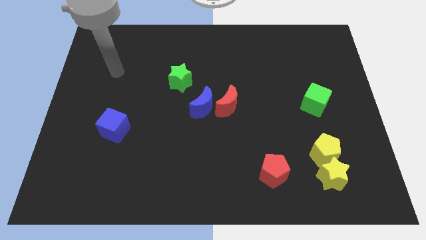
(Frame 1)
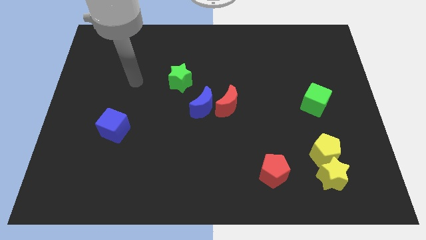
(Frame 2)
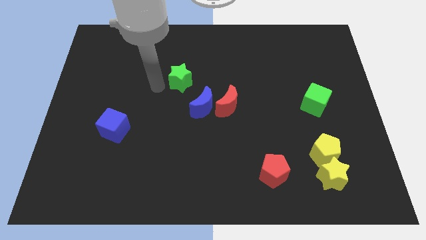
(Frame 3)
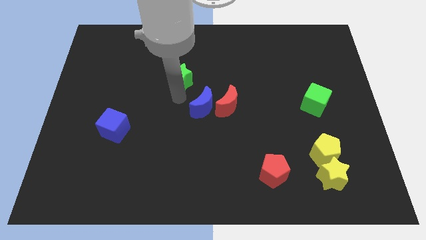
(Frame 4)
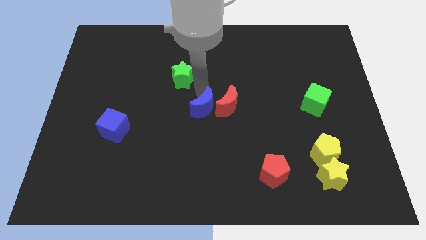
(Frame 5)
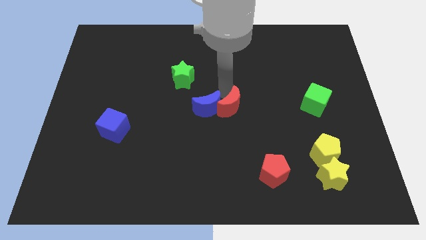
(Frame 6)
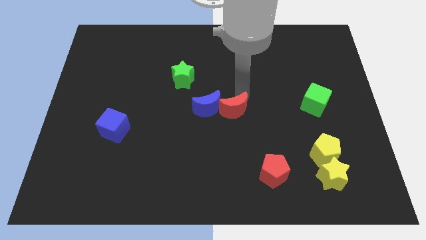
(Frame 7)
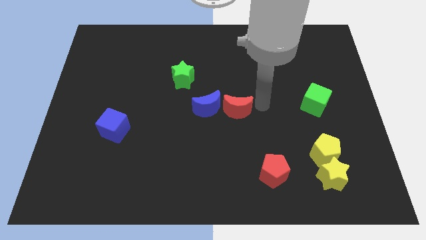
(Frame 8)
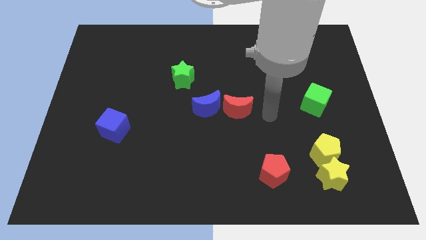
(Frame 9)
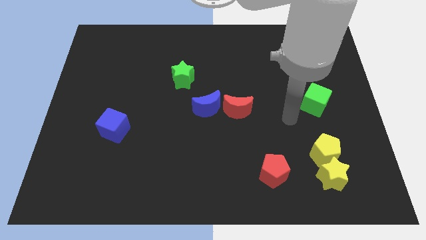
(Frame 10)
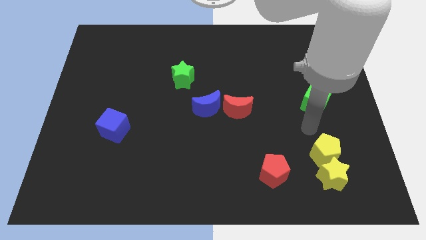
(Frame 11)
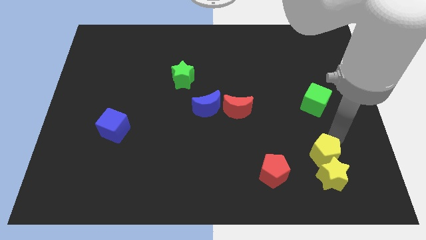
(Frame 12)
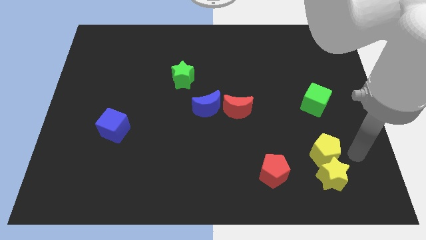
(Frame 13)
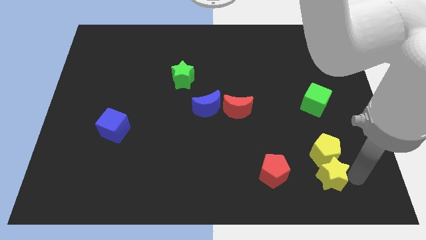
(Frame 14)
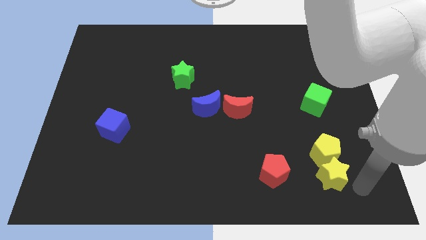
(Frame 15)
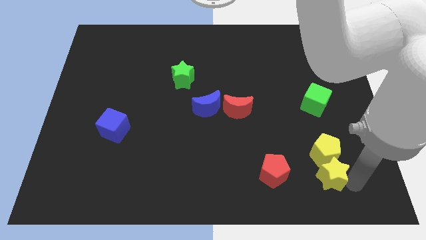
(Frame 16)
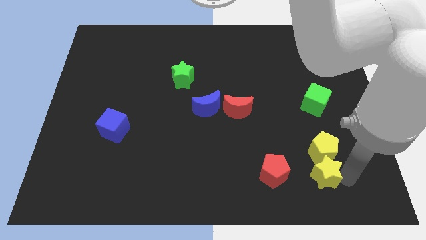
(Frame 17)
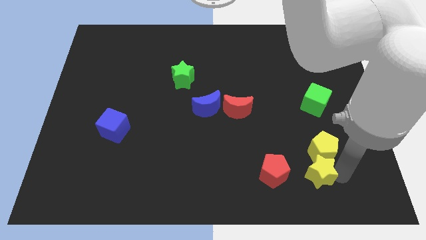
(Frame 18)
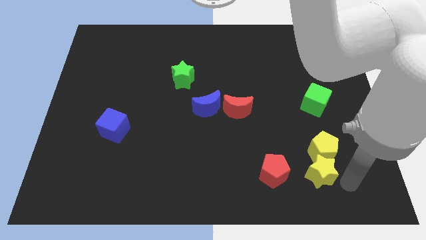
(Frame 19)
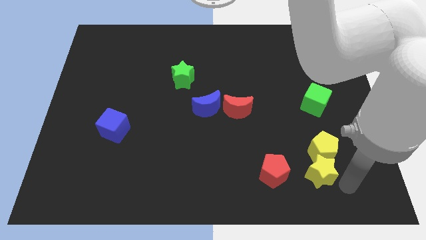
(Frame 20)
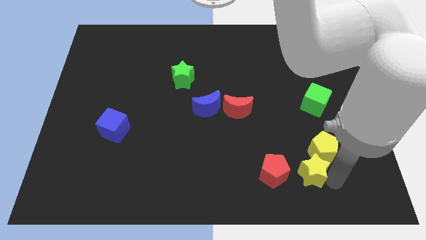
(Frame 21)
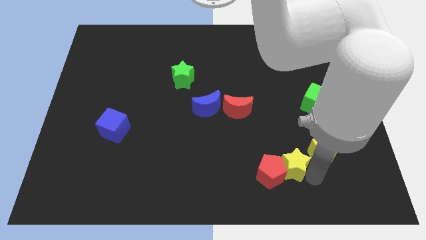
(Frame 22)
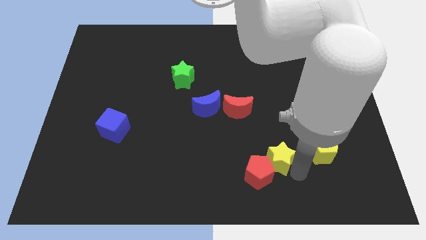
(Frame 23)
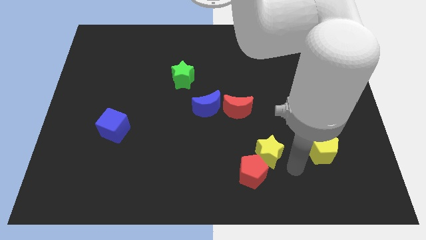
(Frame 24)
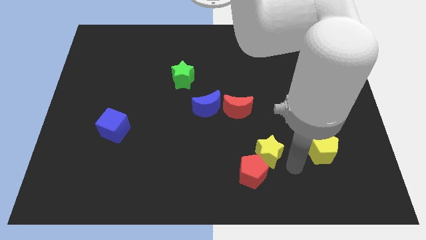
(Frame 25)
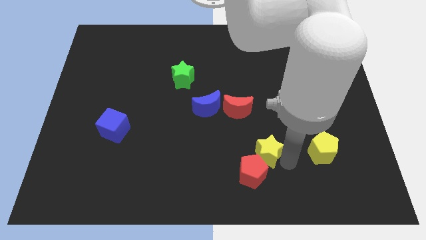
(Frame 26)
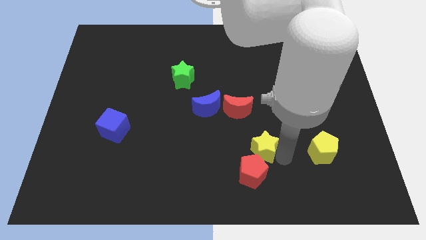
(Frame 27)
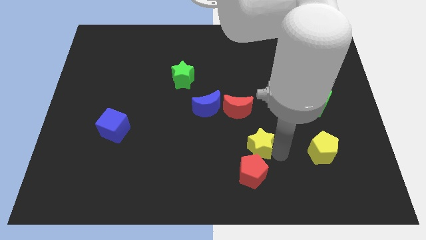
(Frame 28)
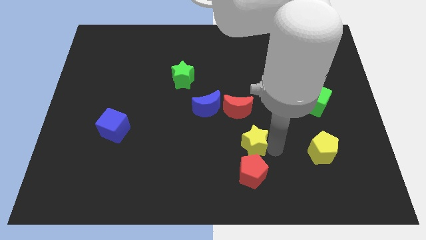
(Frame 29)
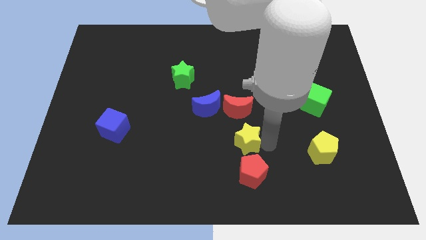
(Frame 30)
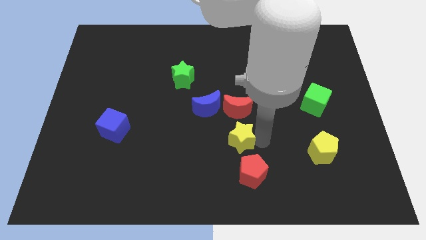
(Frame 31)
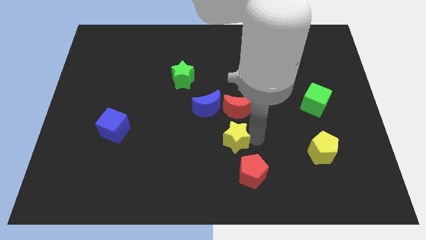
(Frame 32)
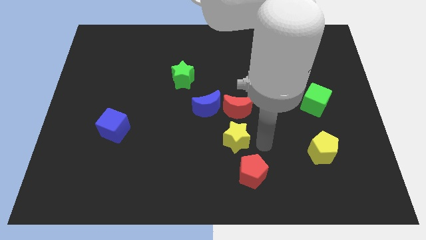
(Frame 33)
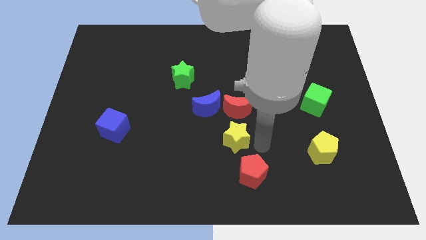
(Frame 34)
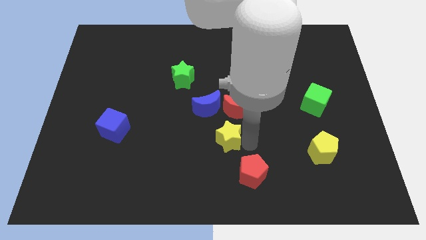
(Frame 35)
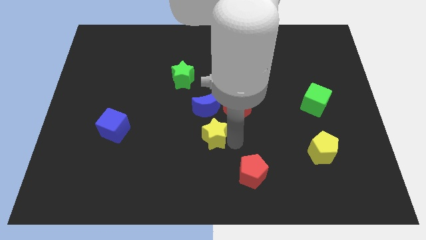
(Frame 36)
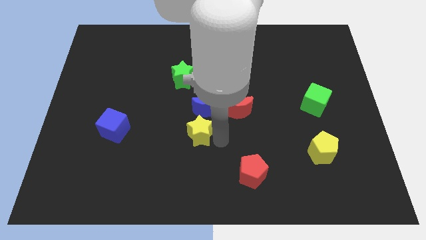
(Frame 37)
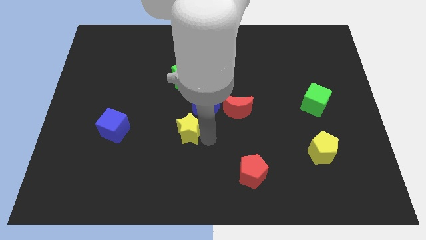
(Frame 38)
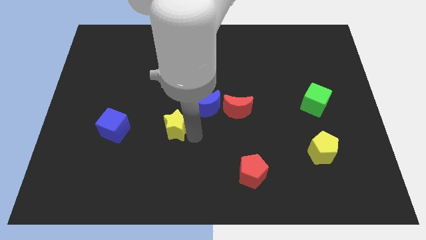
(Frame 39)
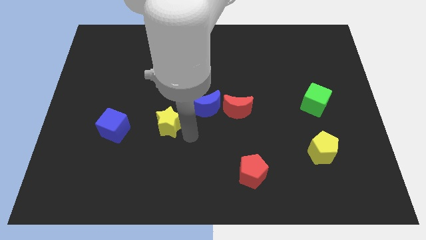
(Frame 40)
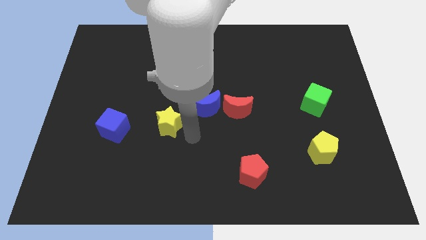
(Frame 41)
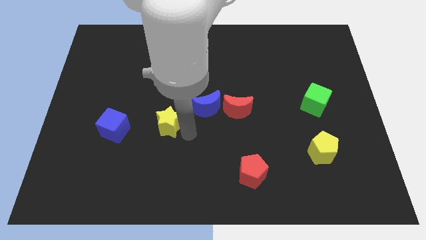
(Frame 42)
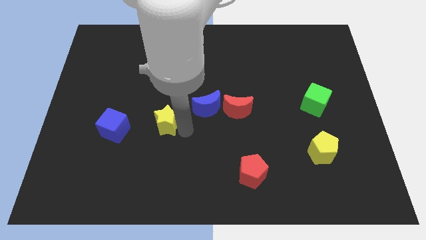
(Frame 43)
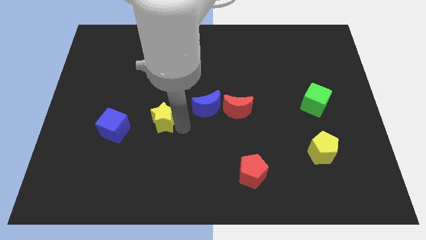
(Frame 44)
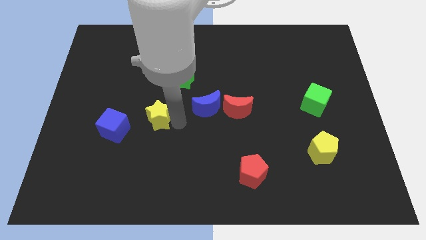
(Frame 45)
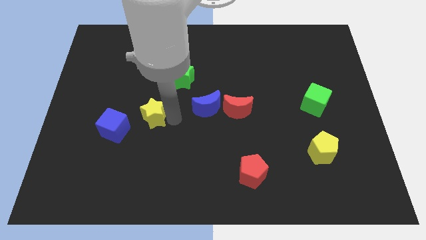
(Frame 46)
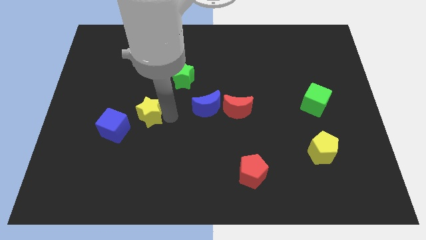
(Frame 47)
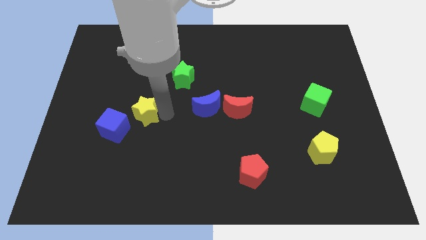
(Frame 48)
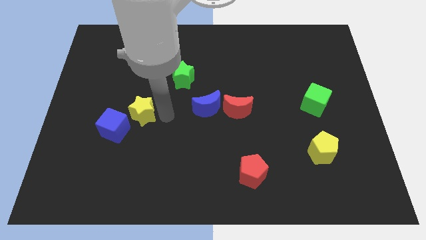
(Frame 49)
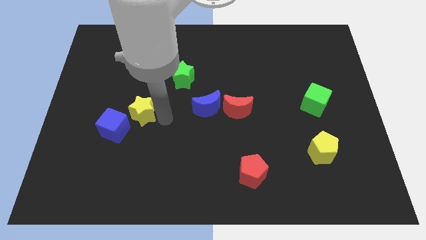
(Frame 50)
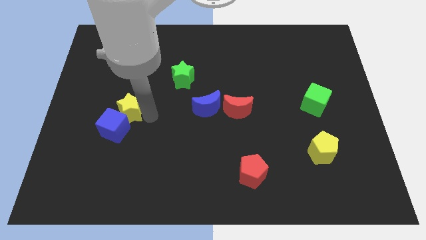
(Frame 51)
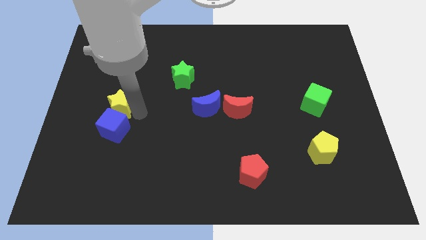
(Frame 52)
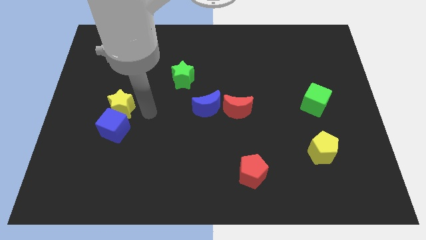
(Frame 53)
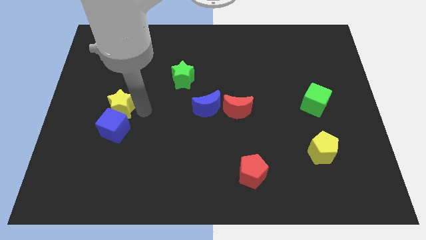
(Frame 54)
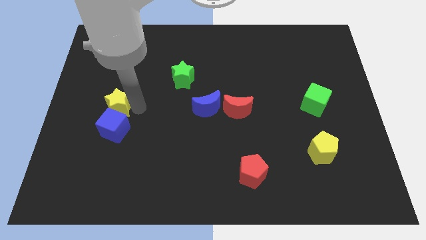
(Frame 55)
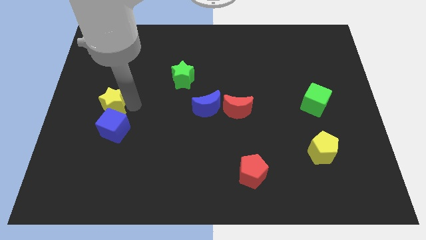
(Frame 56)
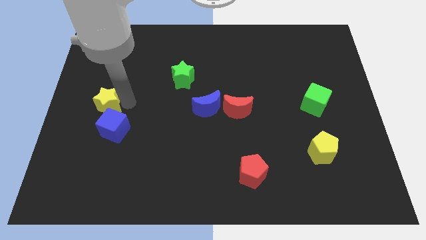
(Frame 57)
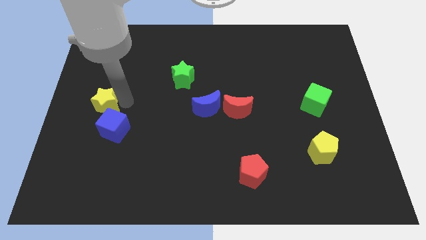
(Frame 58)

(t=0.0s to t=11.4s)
slide the yellow star to the left side

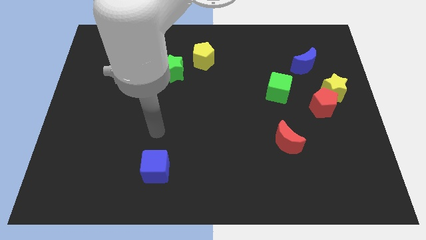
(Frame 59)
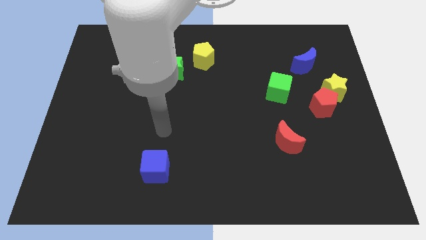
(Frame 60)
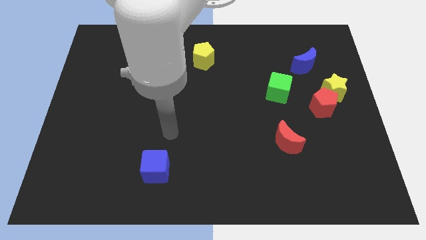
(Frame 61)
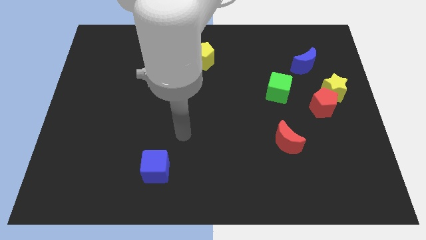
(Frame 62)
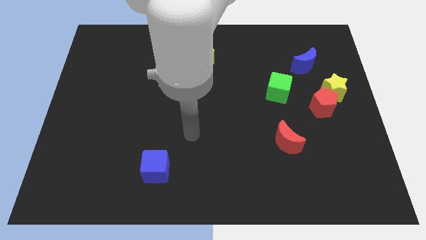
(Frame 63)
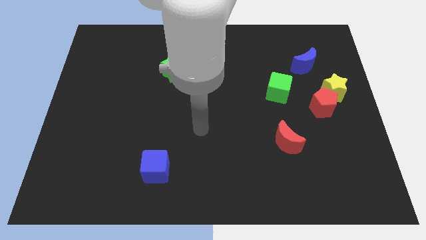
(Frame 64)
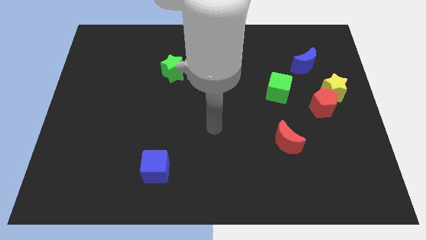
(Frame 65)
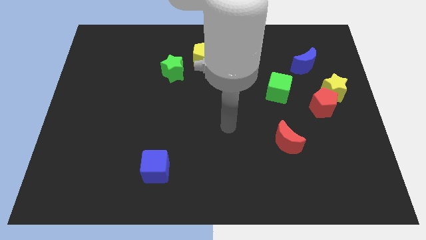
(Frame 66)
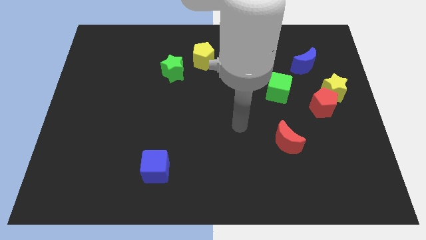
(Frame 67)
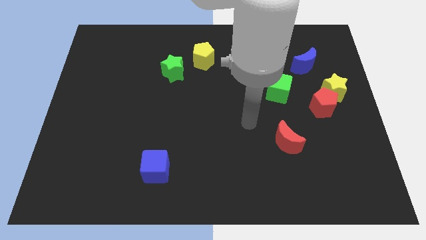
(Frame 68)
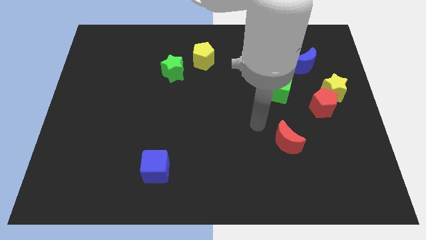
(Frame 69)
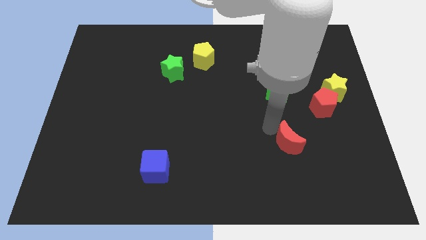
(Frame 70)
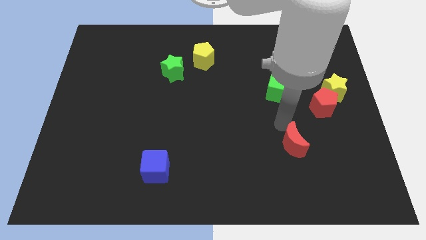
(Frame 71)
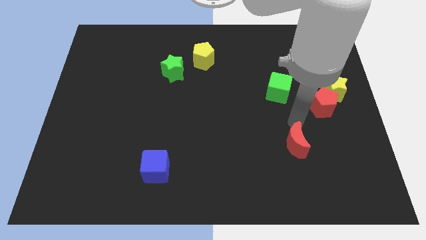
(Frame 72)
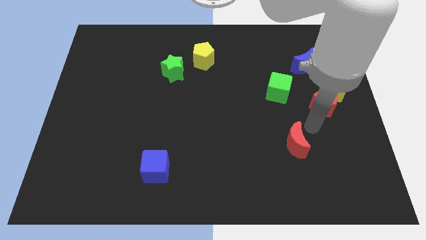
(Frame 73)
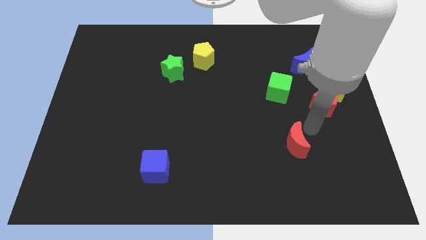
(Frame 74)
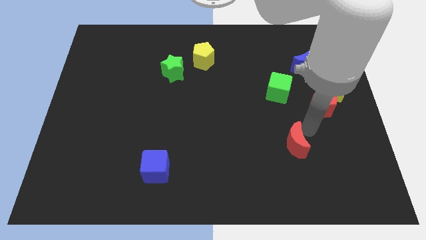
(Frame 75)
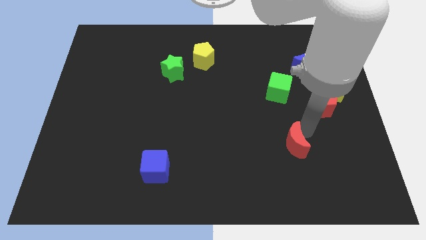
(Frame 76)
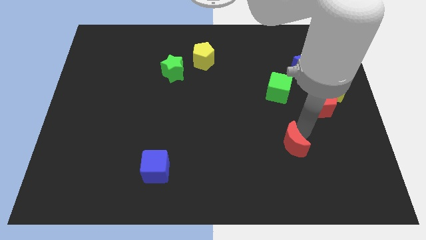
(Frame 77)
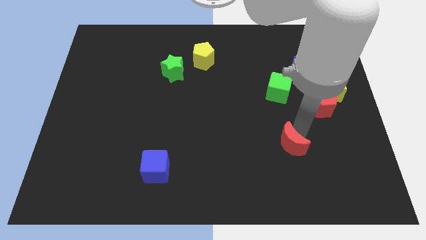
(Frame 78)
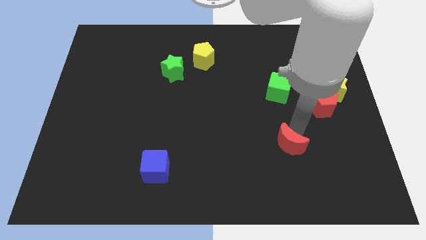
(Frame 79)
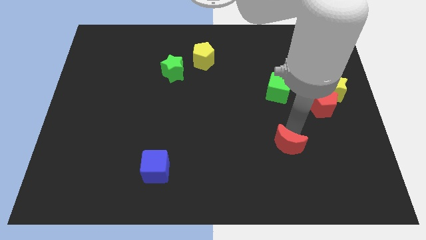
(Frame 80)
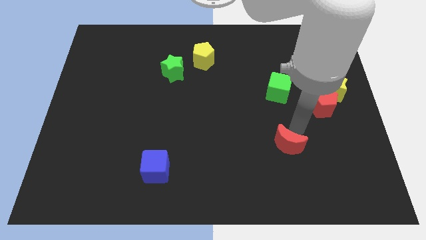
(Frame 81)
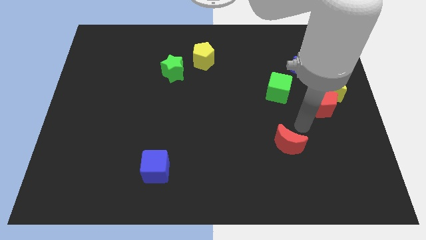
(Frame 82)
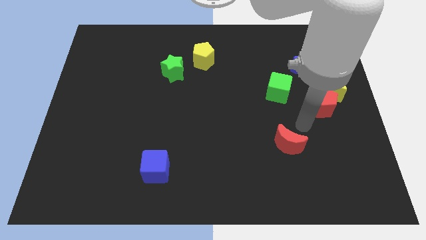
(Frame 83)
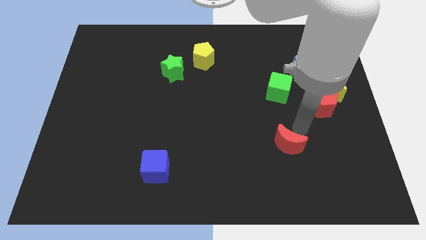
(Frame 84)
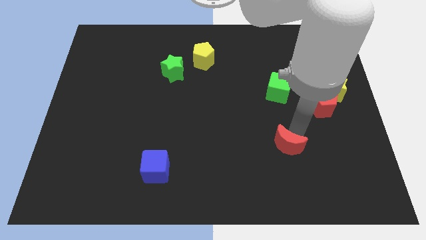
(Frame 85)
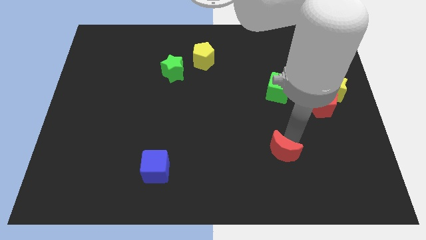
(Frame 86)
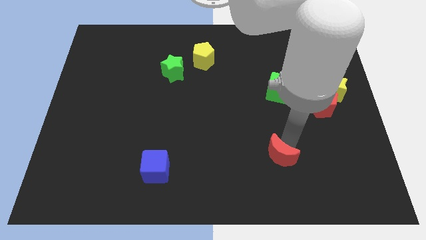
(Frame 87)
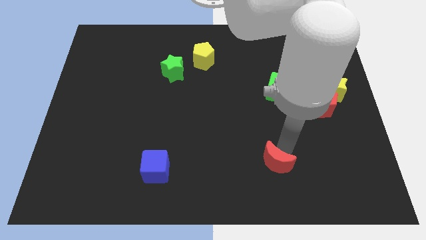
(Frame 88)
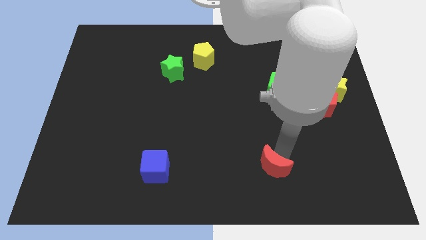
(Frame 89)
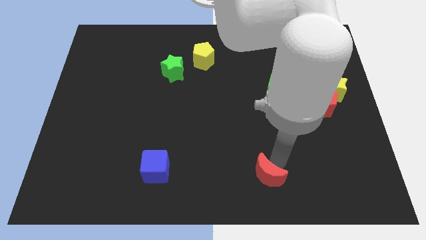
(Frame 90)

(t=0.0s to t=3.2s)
slide the red moon to the bottom side
